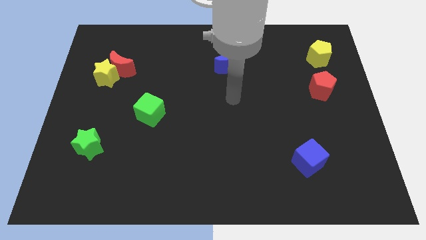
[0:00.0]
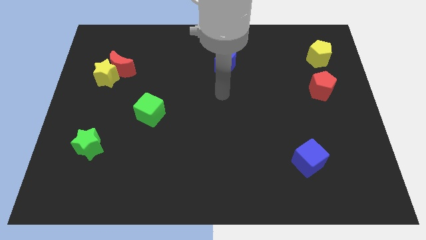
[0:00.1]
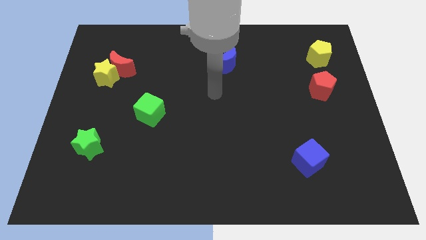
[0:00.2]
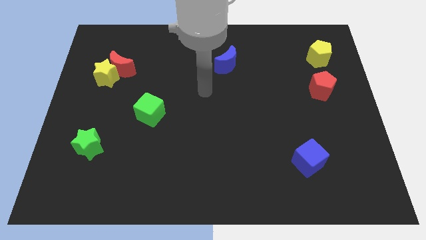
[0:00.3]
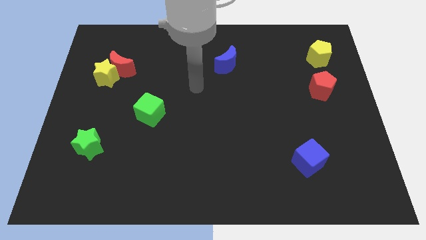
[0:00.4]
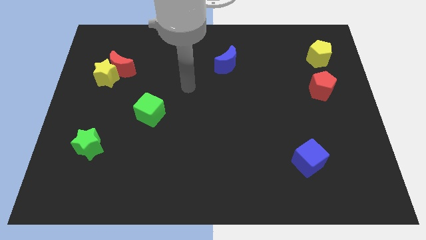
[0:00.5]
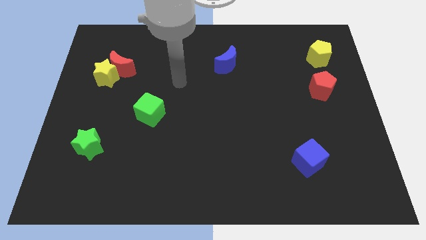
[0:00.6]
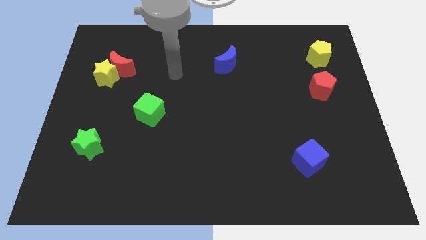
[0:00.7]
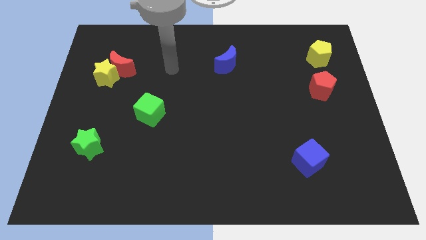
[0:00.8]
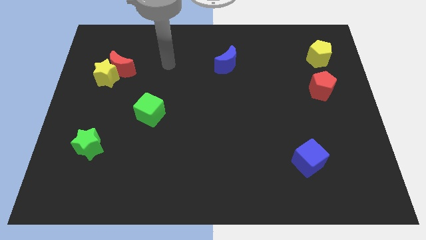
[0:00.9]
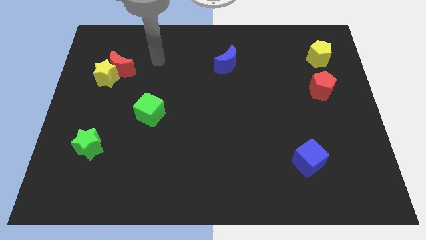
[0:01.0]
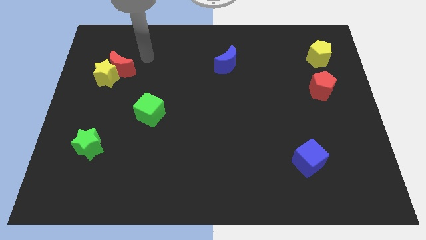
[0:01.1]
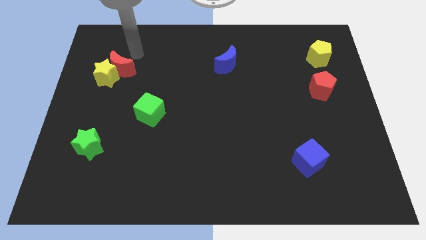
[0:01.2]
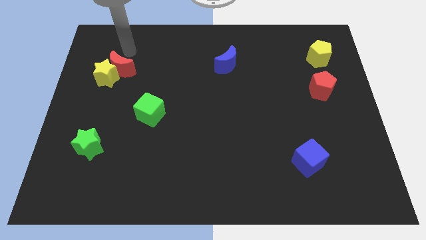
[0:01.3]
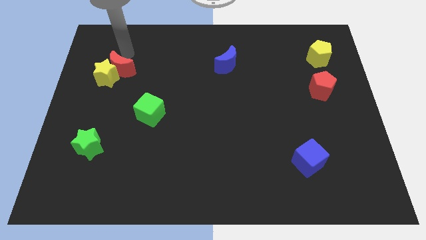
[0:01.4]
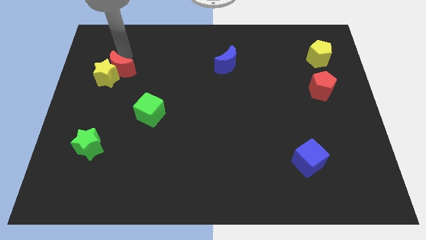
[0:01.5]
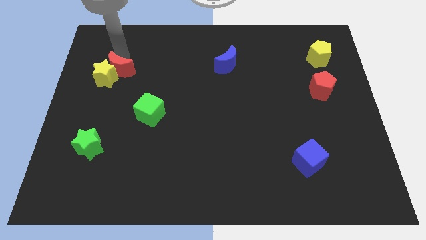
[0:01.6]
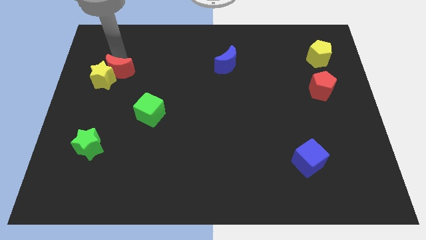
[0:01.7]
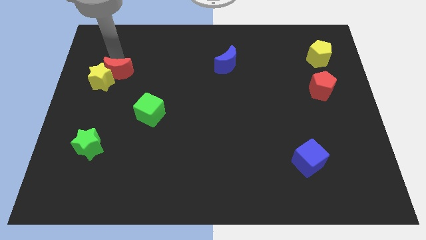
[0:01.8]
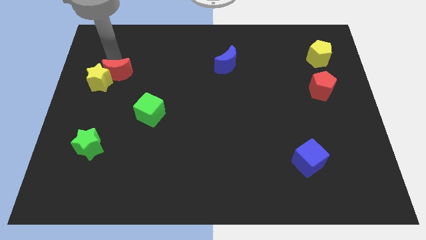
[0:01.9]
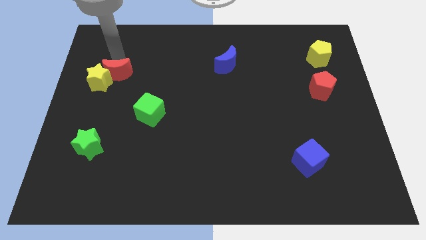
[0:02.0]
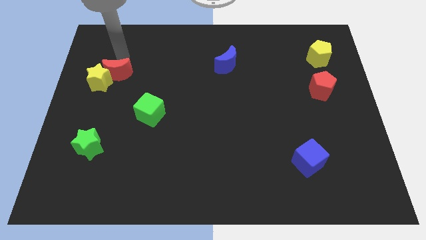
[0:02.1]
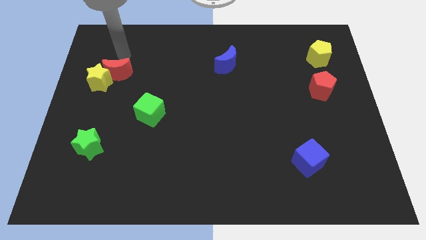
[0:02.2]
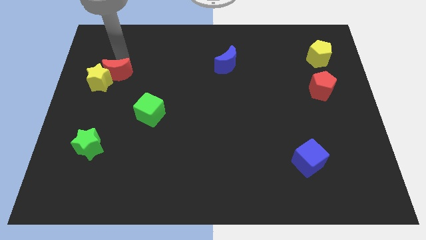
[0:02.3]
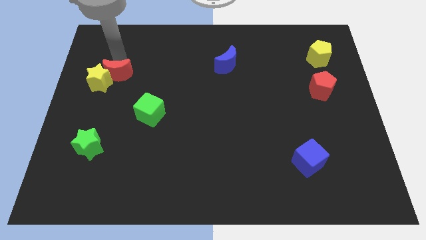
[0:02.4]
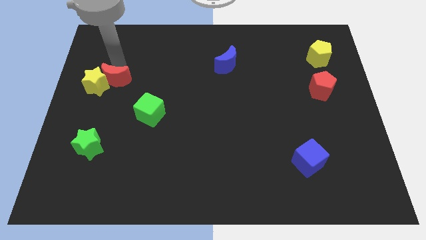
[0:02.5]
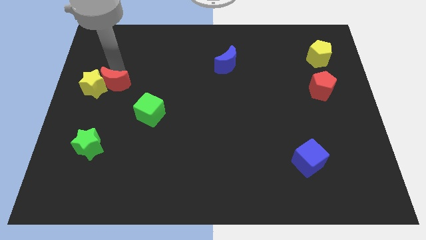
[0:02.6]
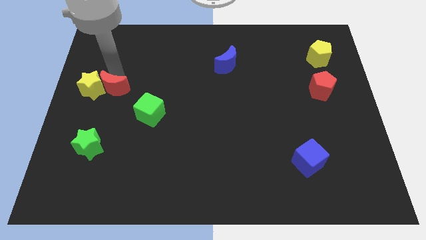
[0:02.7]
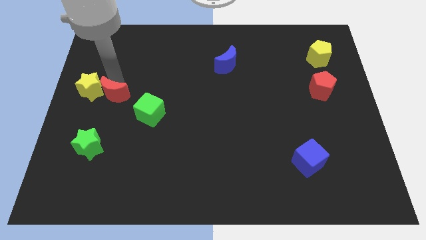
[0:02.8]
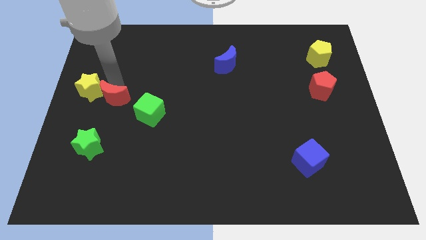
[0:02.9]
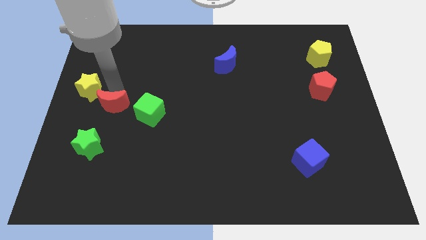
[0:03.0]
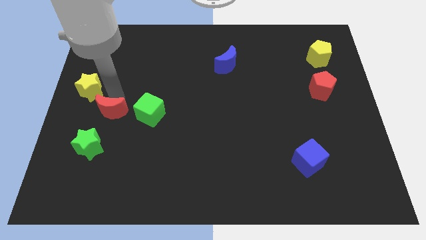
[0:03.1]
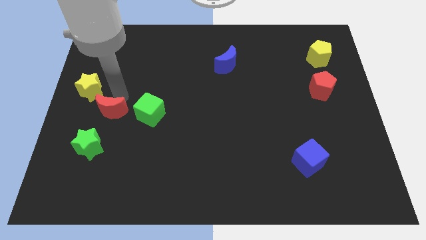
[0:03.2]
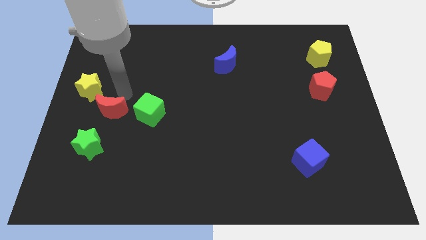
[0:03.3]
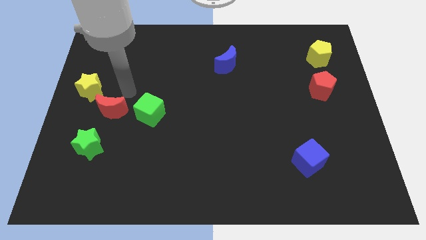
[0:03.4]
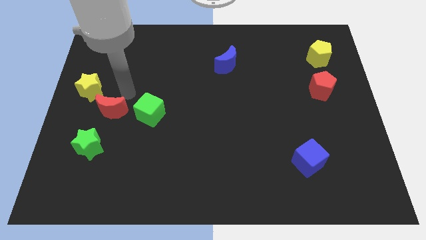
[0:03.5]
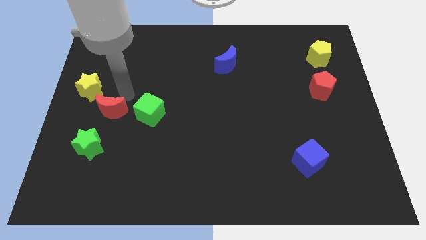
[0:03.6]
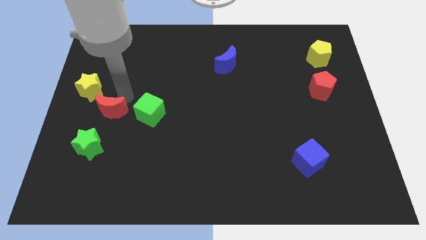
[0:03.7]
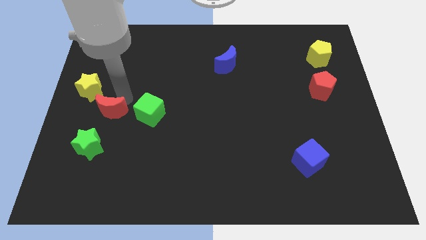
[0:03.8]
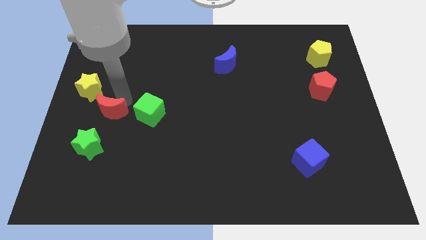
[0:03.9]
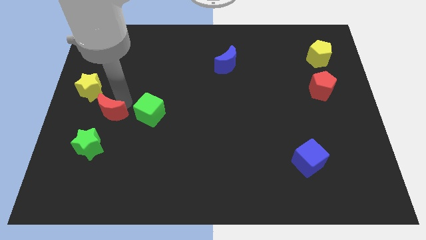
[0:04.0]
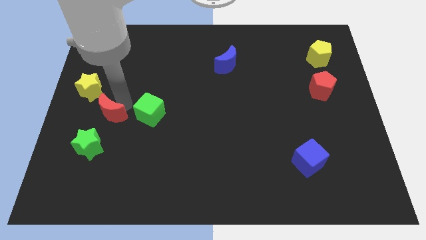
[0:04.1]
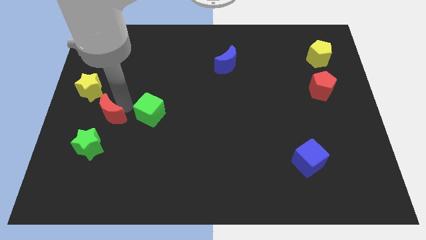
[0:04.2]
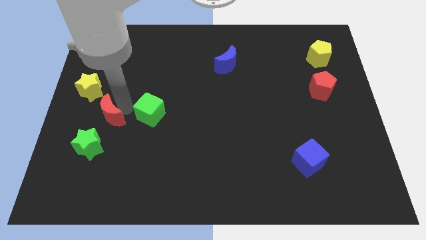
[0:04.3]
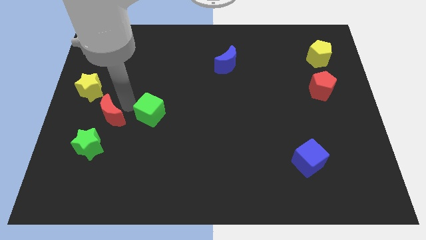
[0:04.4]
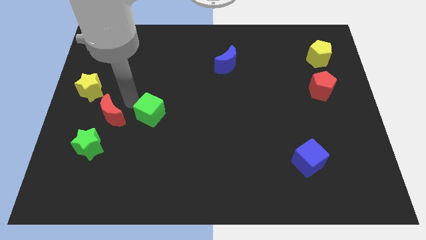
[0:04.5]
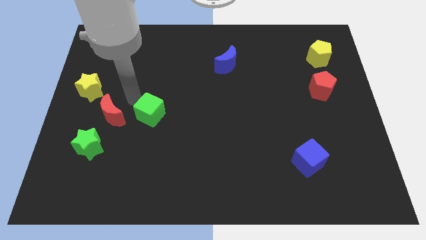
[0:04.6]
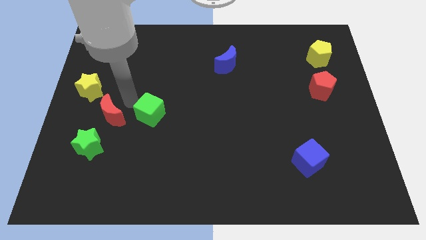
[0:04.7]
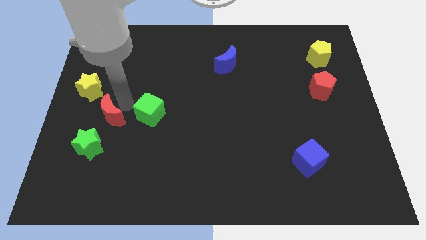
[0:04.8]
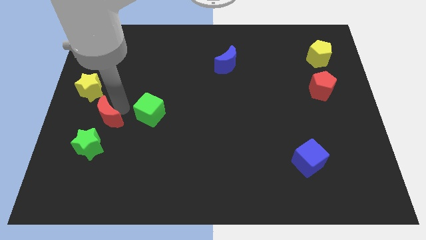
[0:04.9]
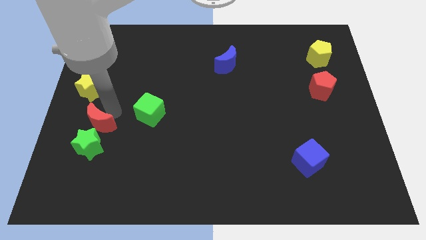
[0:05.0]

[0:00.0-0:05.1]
slide the red moon next to the green star

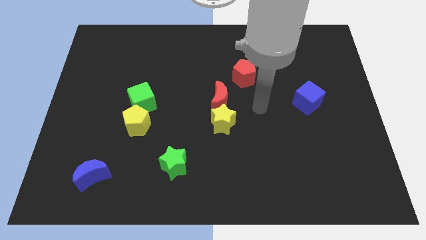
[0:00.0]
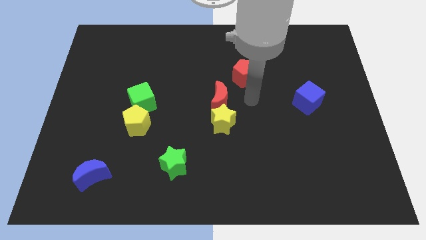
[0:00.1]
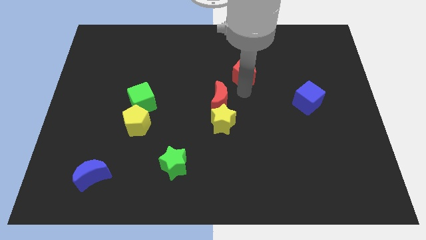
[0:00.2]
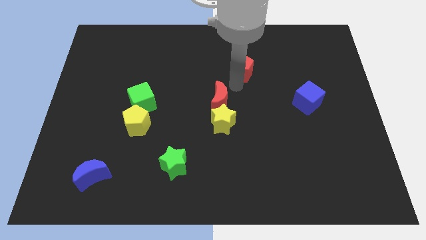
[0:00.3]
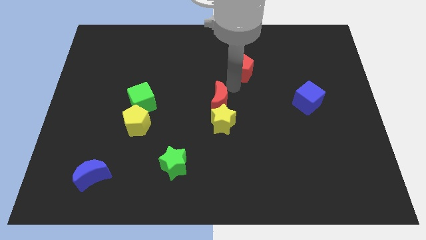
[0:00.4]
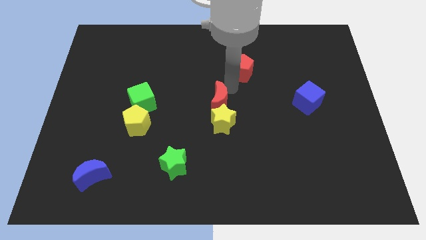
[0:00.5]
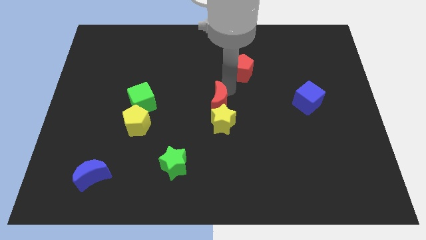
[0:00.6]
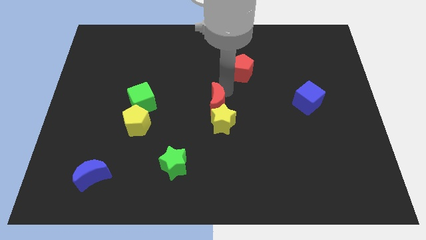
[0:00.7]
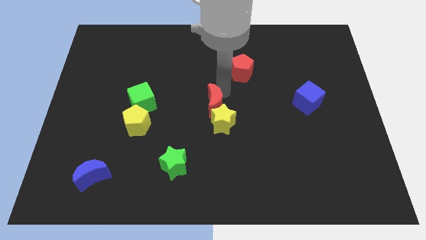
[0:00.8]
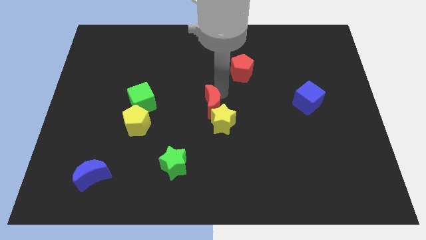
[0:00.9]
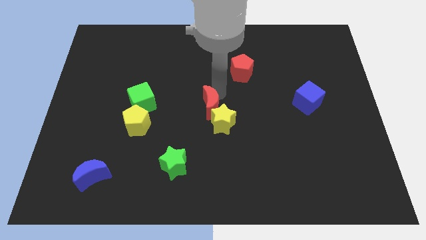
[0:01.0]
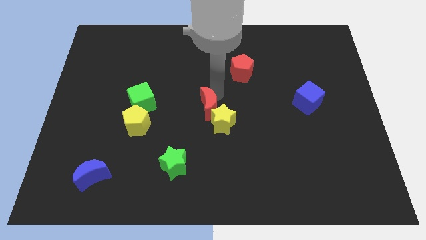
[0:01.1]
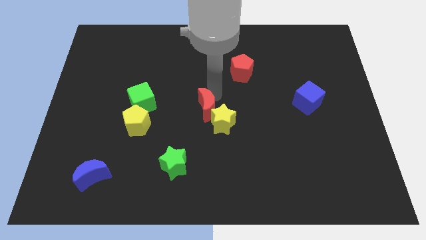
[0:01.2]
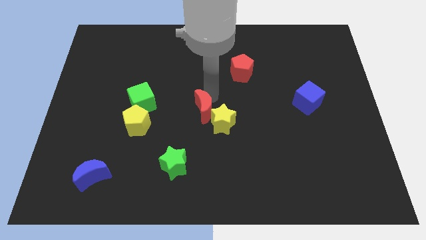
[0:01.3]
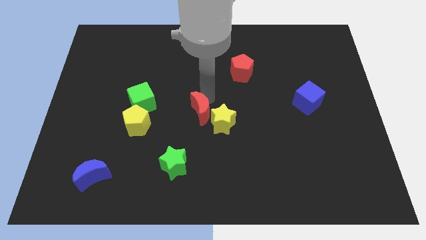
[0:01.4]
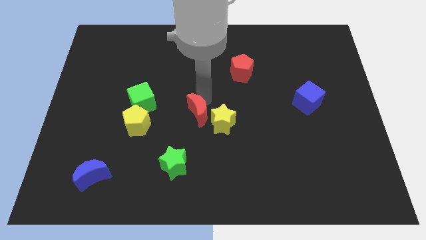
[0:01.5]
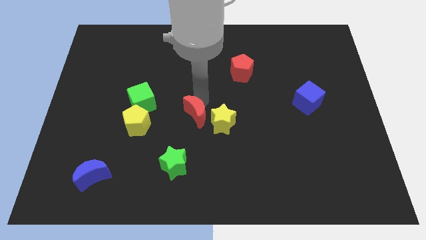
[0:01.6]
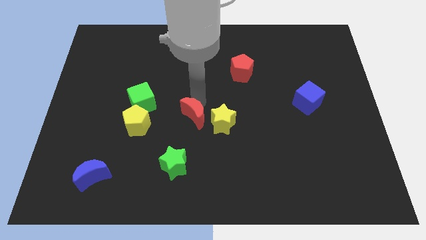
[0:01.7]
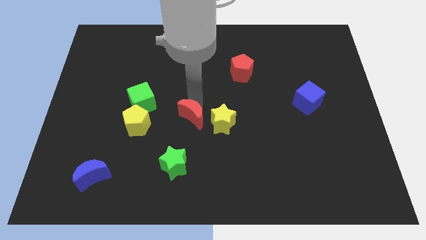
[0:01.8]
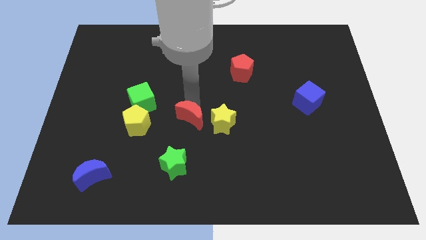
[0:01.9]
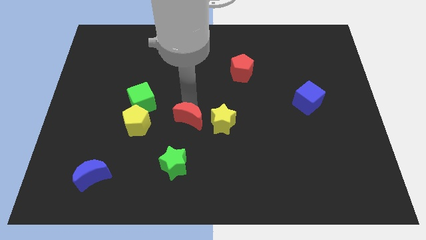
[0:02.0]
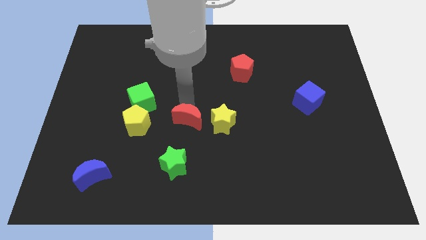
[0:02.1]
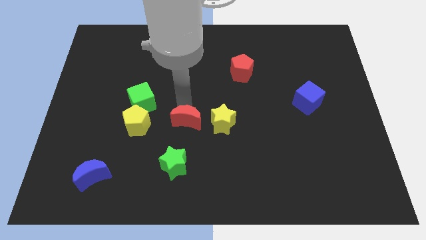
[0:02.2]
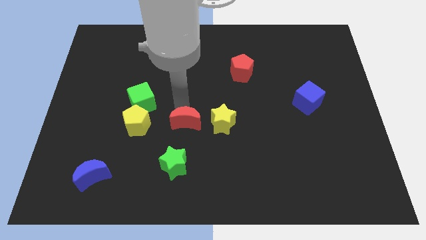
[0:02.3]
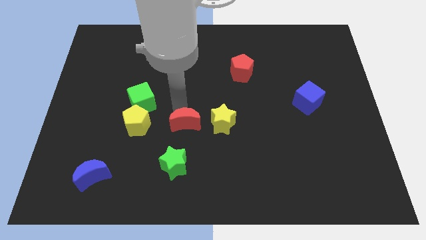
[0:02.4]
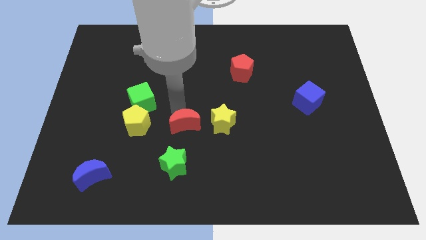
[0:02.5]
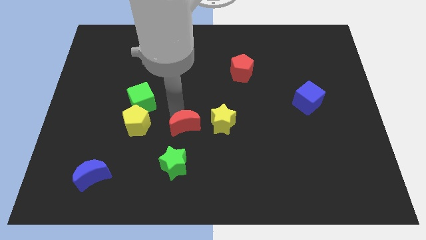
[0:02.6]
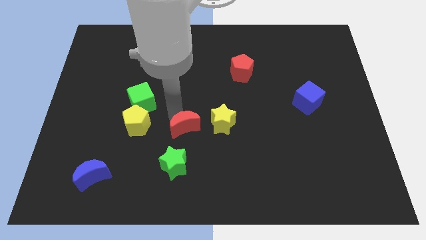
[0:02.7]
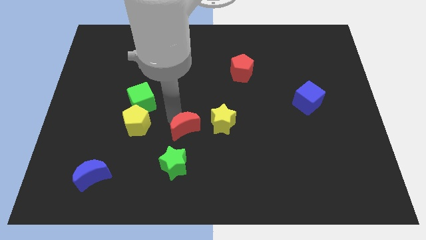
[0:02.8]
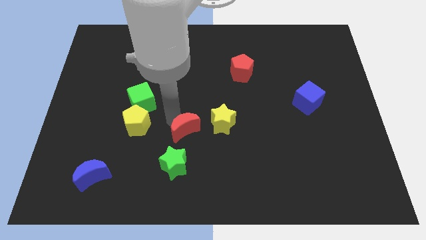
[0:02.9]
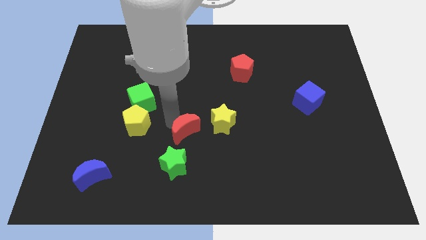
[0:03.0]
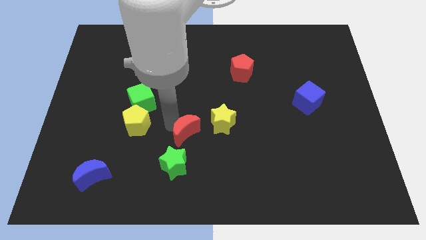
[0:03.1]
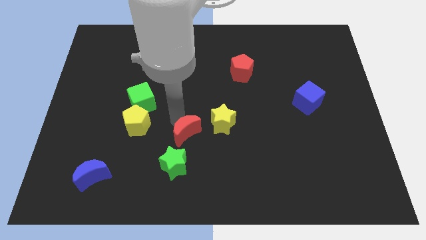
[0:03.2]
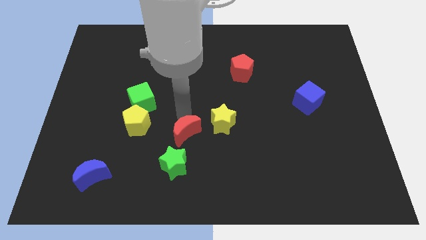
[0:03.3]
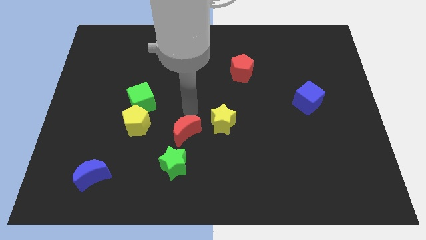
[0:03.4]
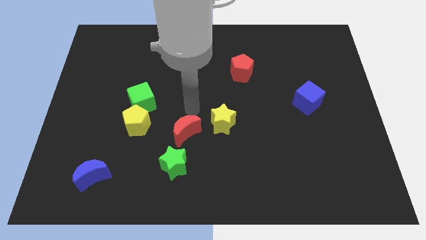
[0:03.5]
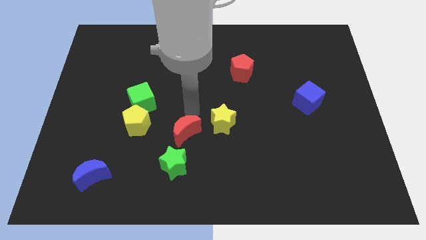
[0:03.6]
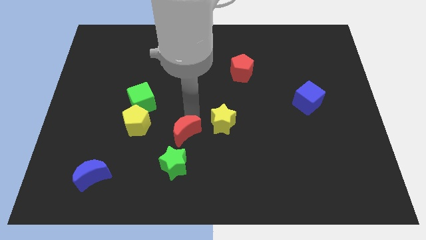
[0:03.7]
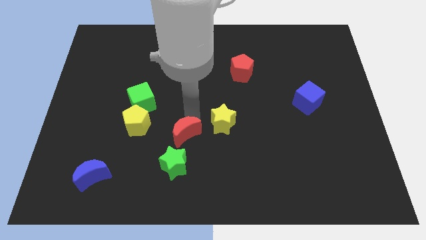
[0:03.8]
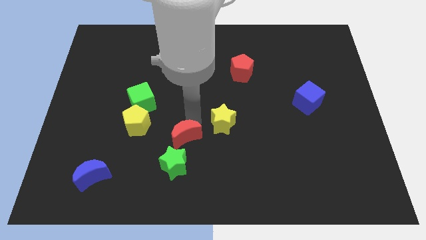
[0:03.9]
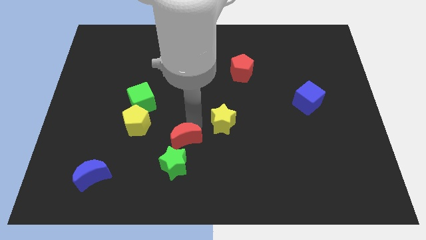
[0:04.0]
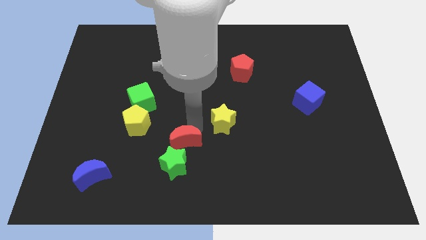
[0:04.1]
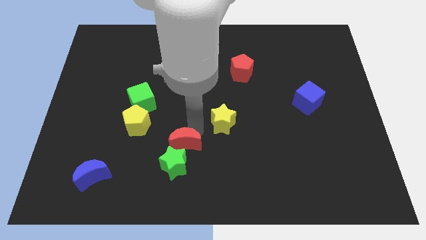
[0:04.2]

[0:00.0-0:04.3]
move the red moon next to the green star
